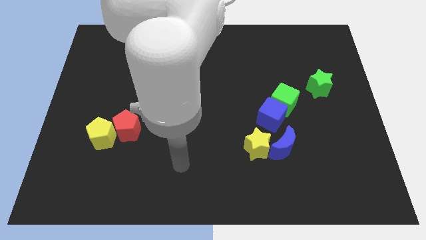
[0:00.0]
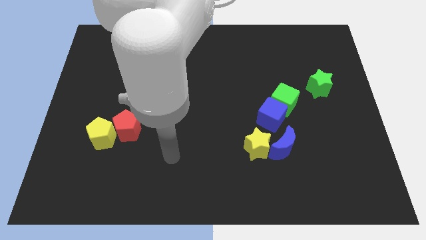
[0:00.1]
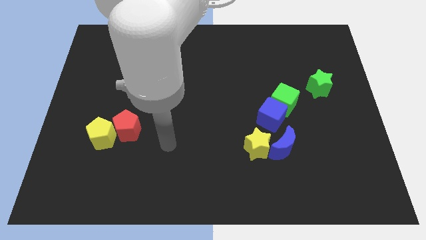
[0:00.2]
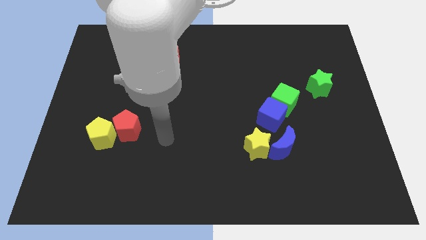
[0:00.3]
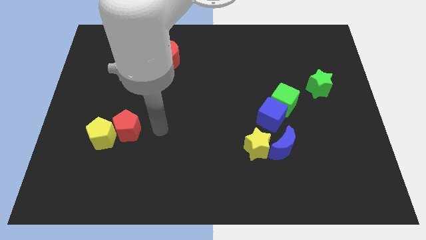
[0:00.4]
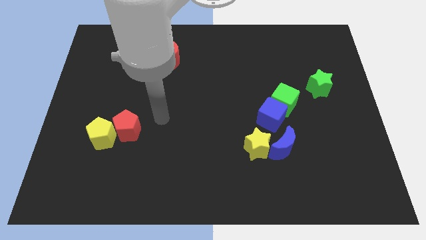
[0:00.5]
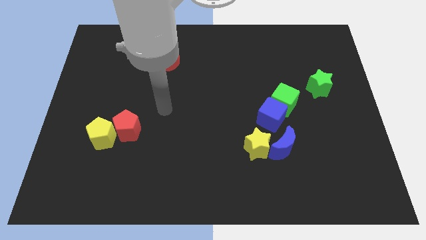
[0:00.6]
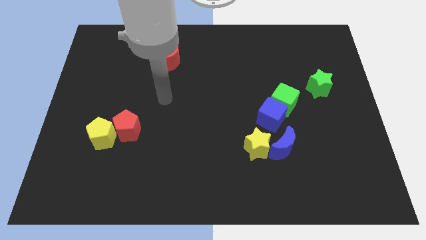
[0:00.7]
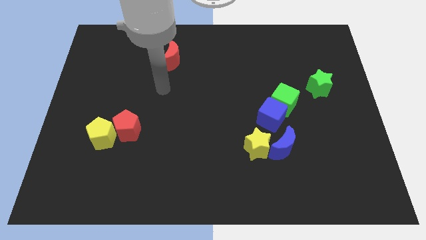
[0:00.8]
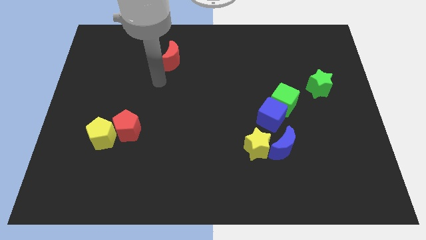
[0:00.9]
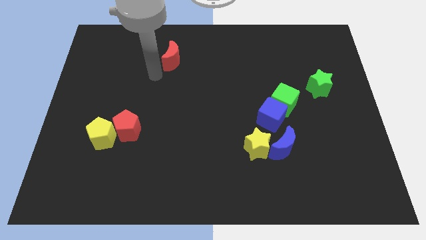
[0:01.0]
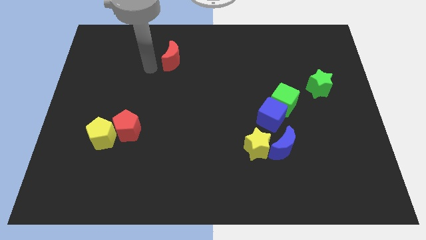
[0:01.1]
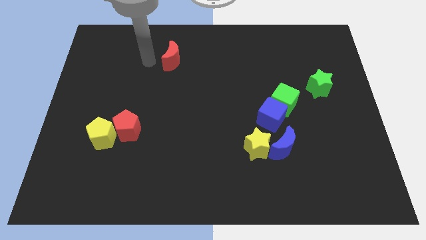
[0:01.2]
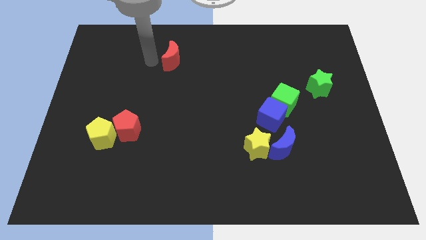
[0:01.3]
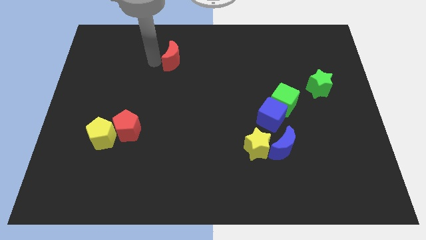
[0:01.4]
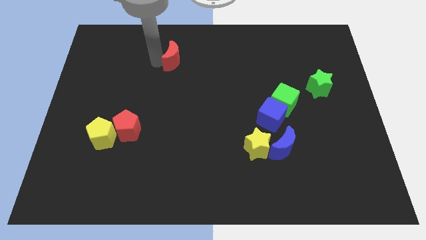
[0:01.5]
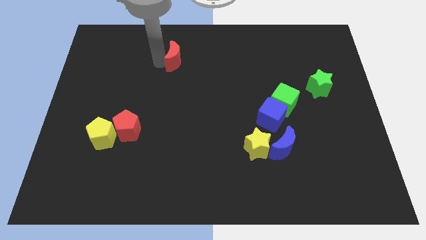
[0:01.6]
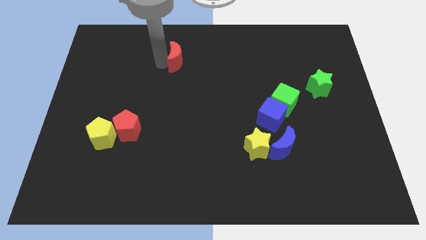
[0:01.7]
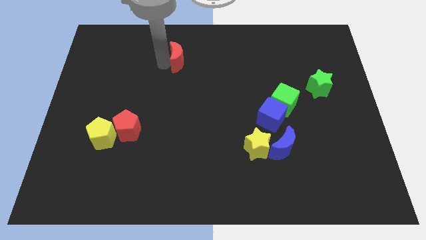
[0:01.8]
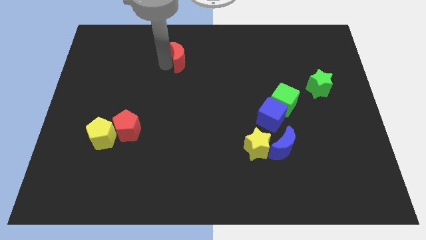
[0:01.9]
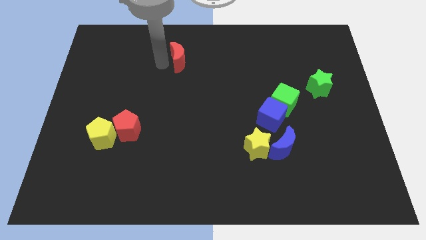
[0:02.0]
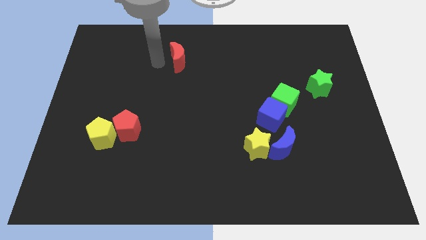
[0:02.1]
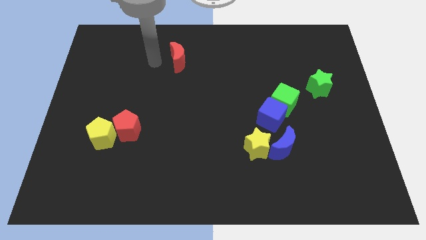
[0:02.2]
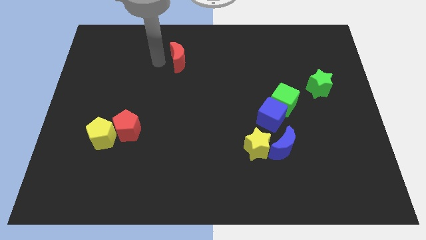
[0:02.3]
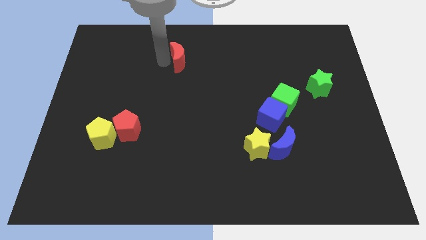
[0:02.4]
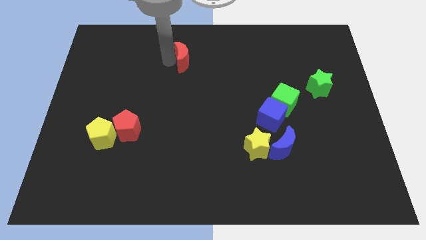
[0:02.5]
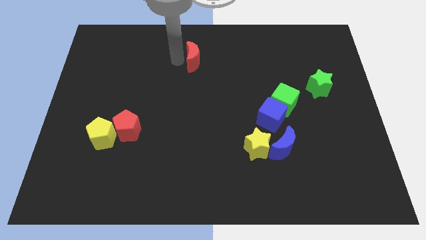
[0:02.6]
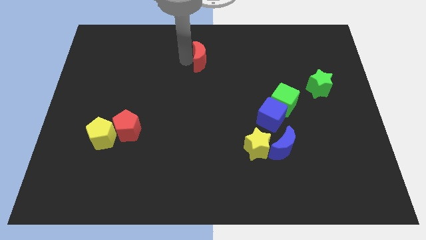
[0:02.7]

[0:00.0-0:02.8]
slide the red moon right somewhat

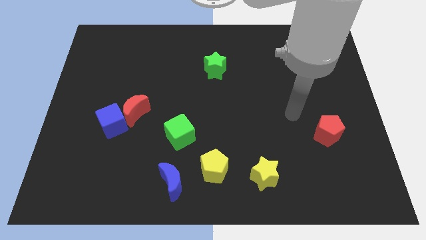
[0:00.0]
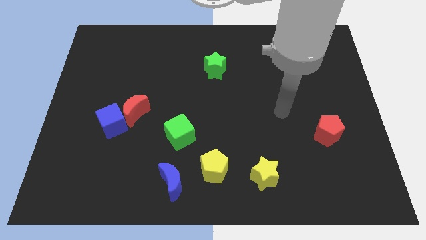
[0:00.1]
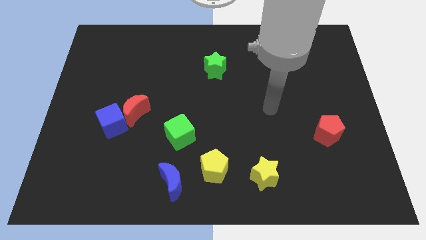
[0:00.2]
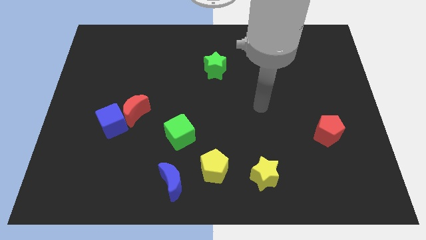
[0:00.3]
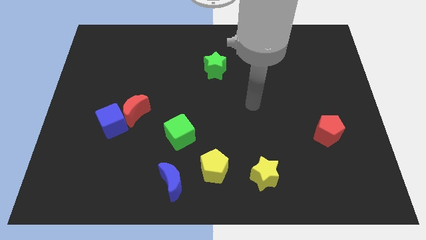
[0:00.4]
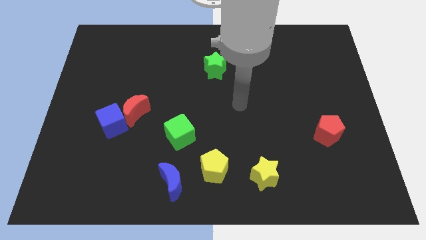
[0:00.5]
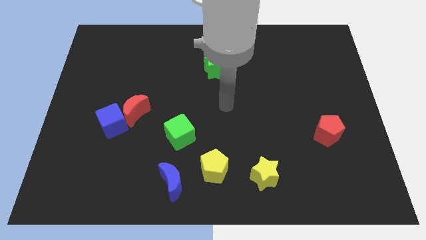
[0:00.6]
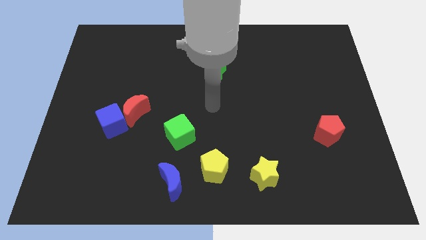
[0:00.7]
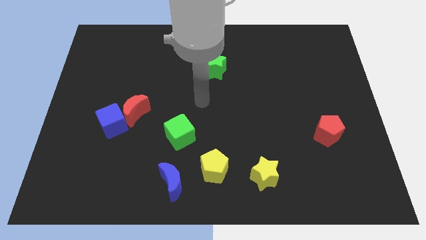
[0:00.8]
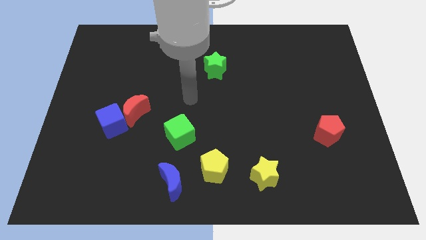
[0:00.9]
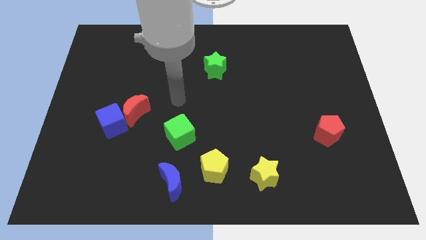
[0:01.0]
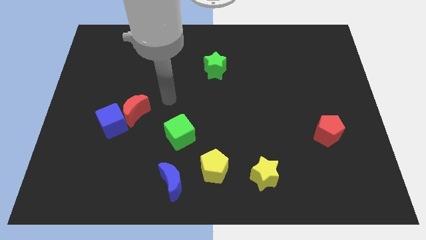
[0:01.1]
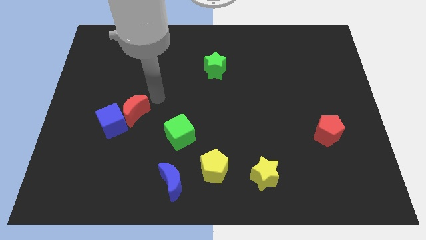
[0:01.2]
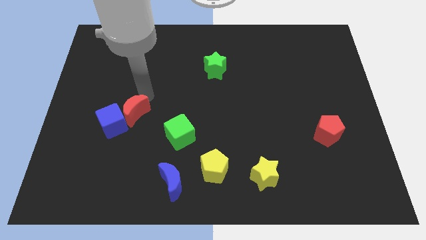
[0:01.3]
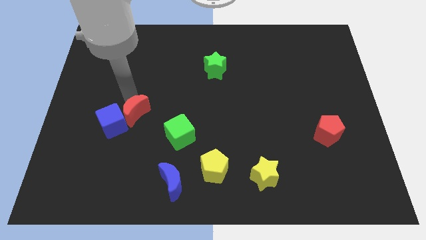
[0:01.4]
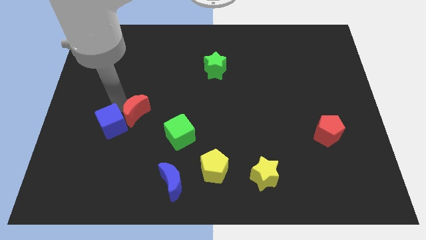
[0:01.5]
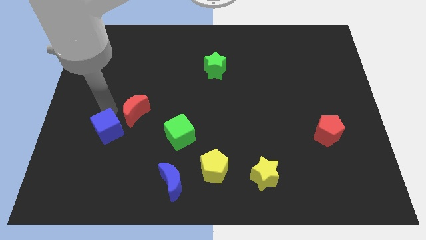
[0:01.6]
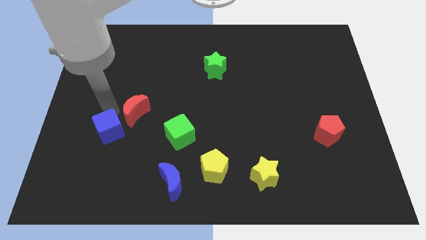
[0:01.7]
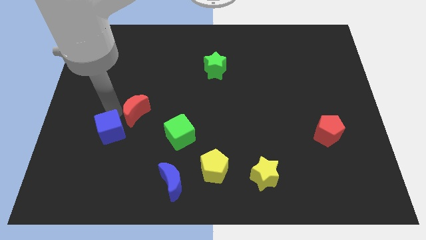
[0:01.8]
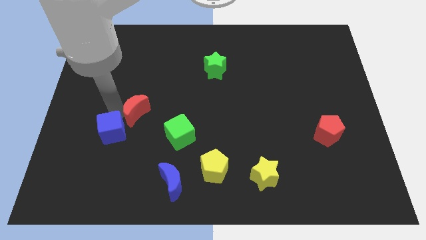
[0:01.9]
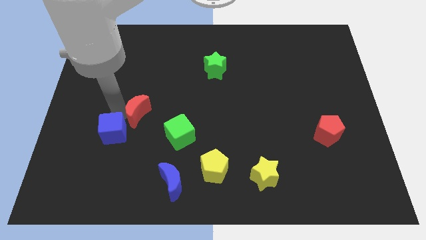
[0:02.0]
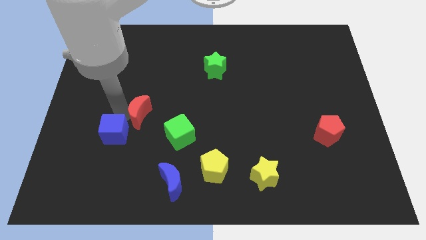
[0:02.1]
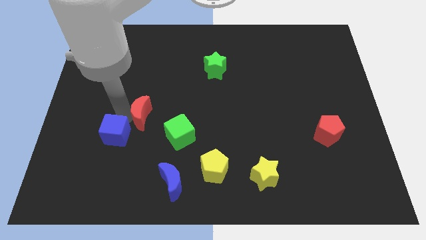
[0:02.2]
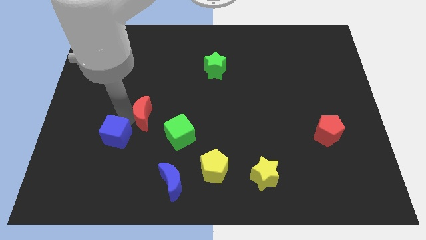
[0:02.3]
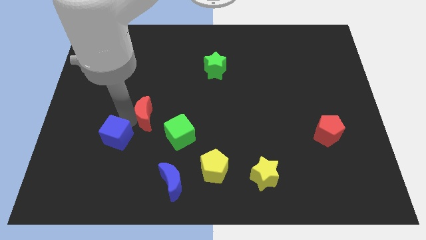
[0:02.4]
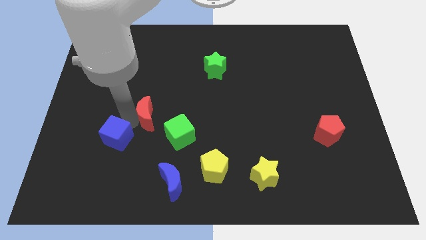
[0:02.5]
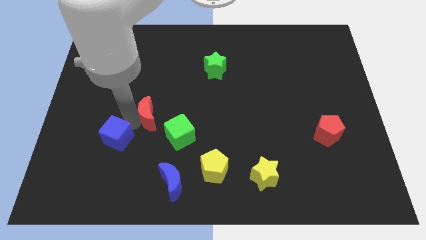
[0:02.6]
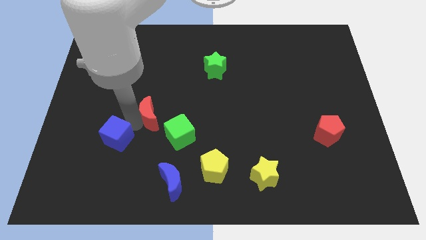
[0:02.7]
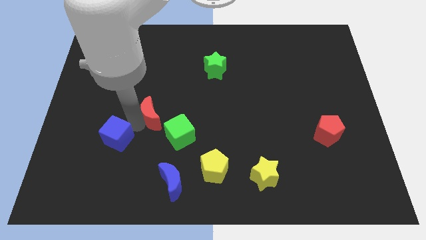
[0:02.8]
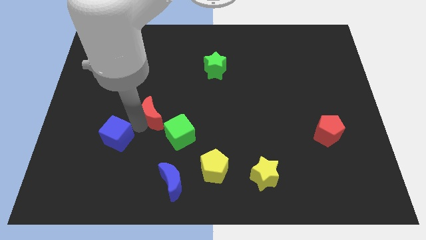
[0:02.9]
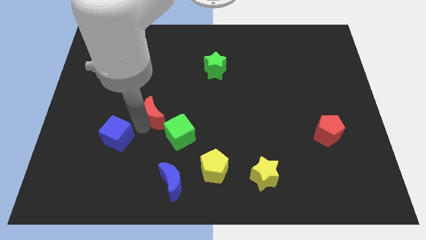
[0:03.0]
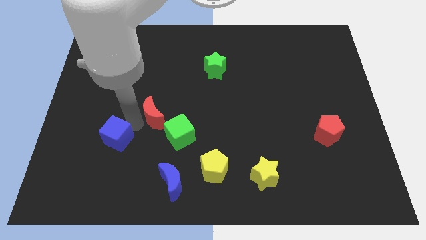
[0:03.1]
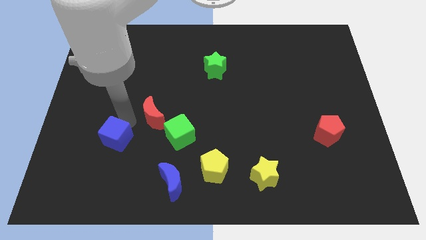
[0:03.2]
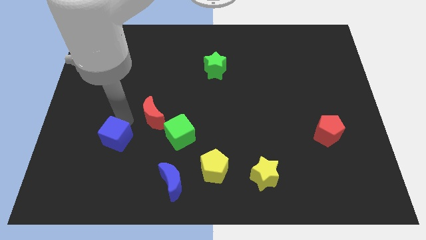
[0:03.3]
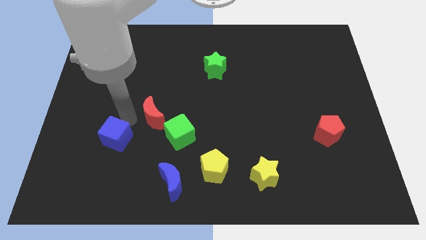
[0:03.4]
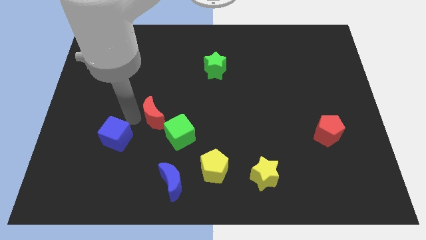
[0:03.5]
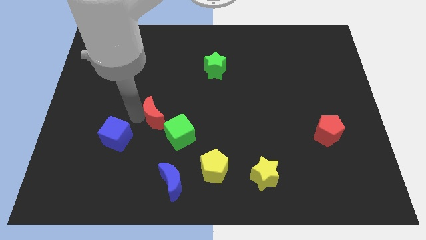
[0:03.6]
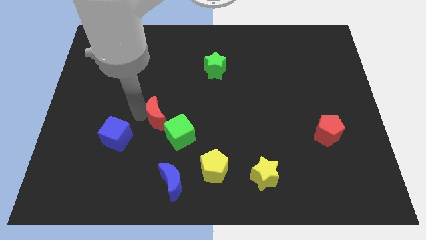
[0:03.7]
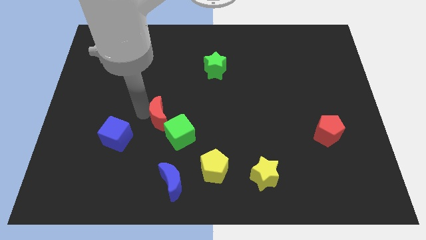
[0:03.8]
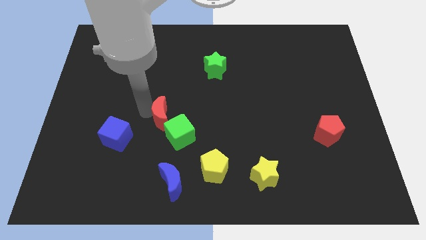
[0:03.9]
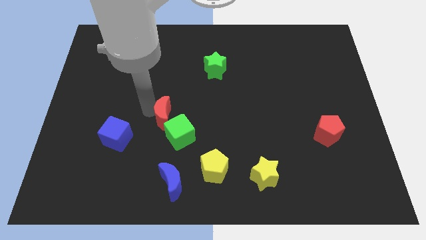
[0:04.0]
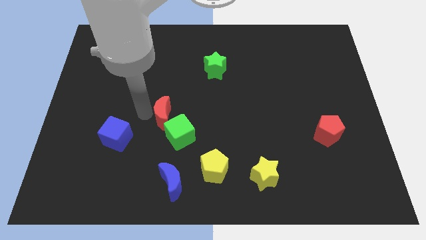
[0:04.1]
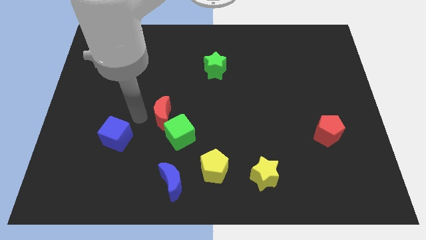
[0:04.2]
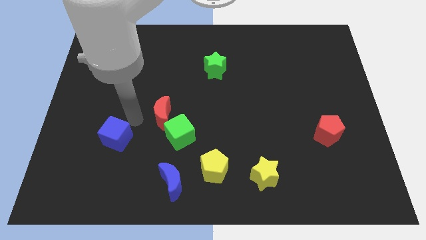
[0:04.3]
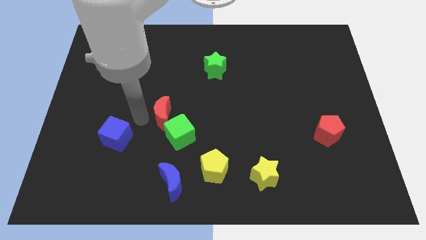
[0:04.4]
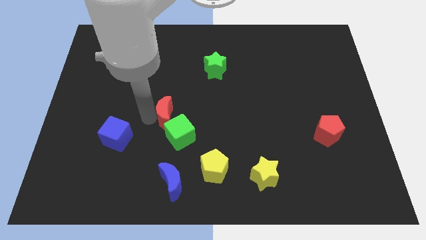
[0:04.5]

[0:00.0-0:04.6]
move the red moon right slightly

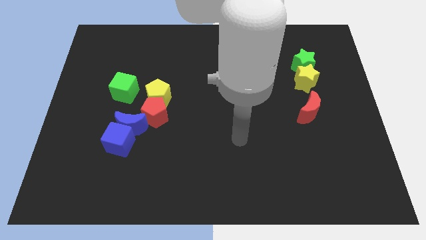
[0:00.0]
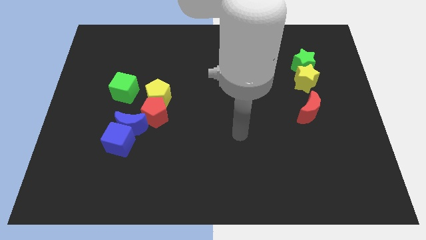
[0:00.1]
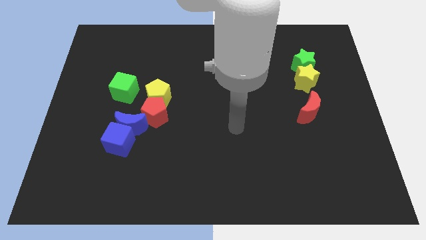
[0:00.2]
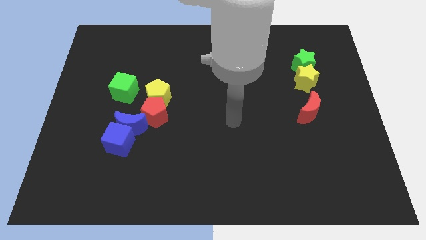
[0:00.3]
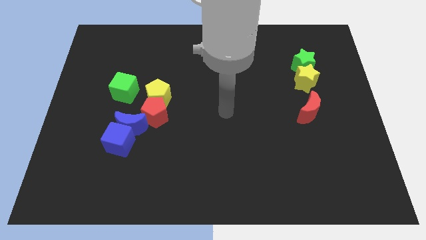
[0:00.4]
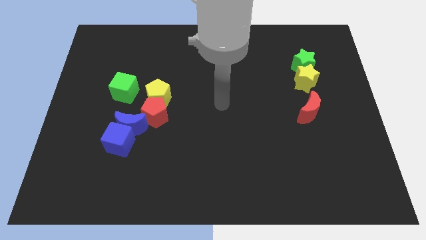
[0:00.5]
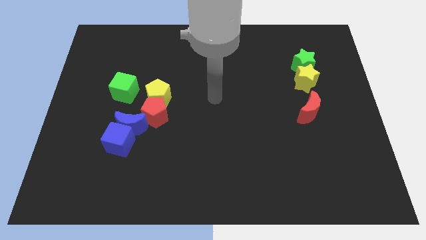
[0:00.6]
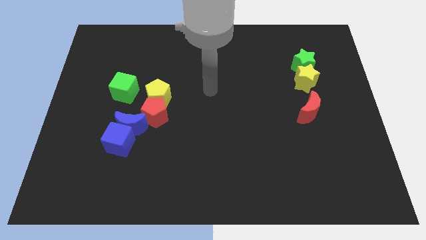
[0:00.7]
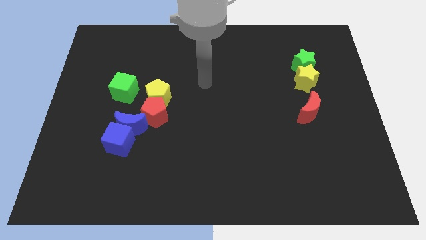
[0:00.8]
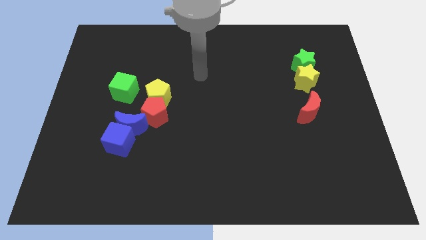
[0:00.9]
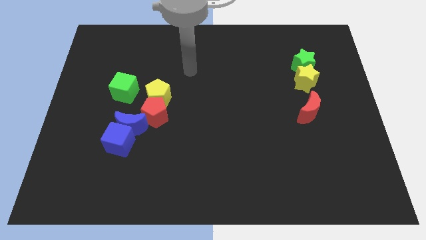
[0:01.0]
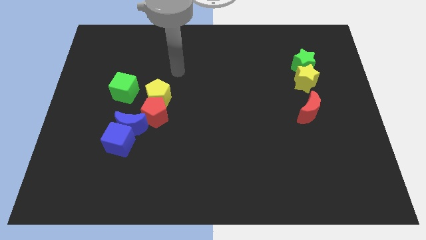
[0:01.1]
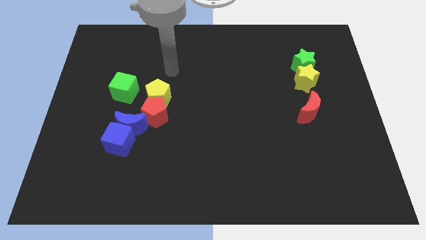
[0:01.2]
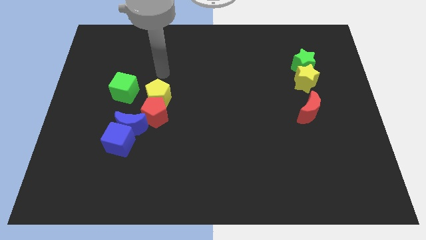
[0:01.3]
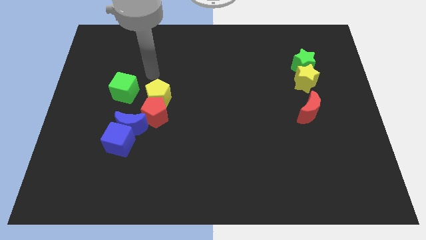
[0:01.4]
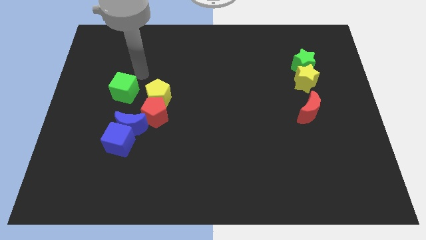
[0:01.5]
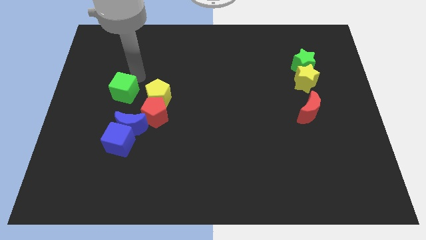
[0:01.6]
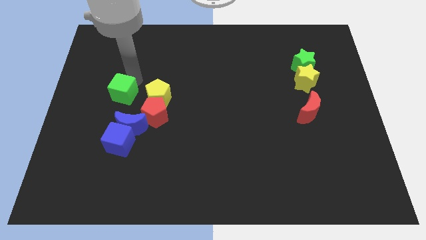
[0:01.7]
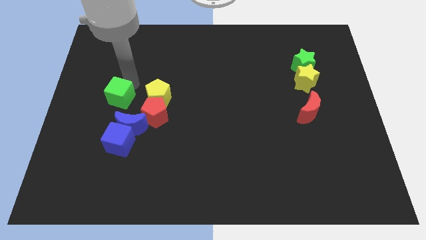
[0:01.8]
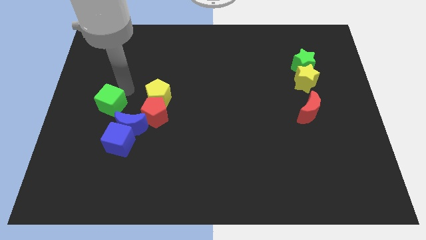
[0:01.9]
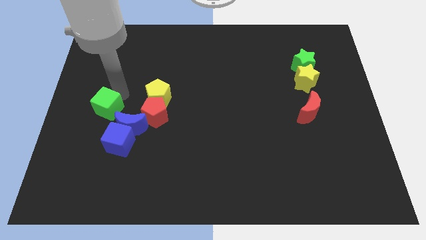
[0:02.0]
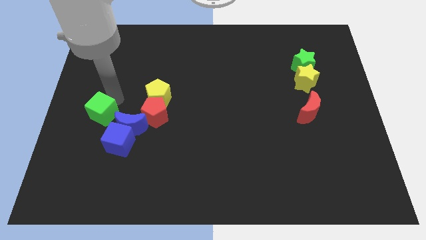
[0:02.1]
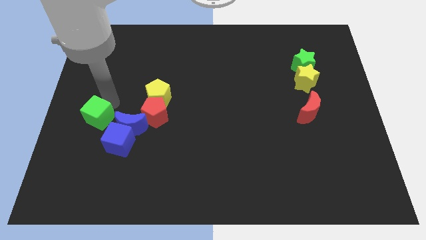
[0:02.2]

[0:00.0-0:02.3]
slide the green cube a bit downwards
